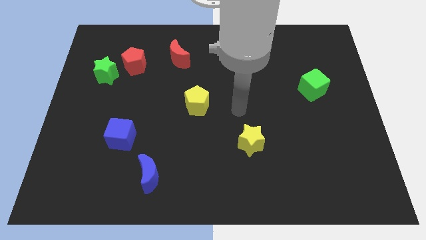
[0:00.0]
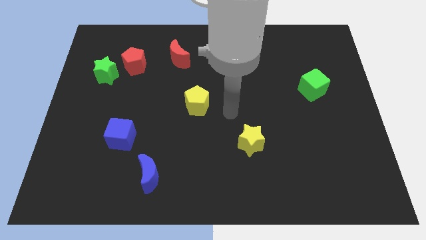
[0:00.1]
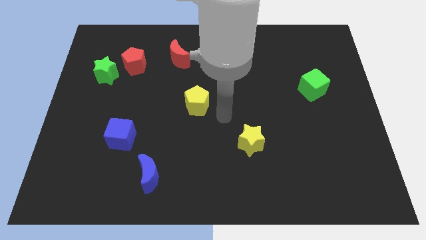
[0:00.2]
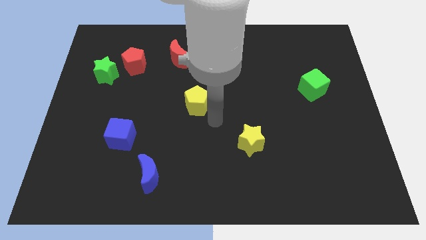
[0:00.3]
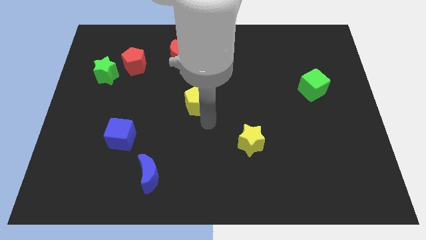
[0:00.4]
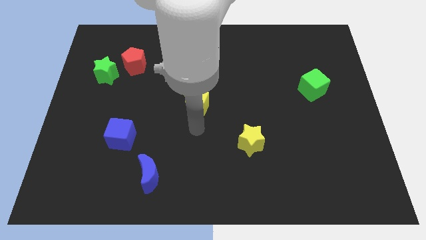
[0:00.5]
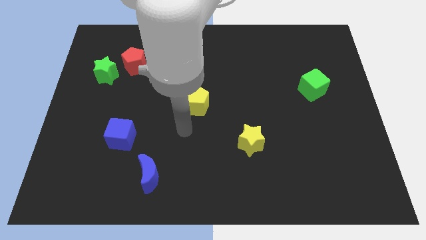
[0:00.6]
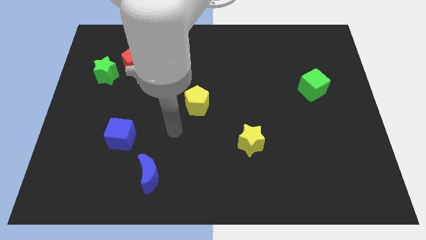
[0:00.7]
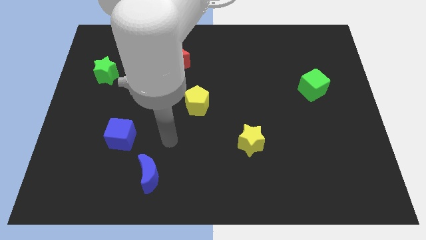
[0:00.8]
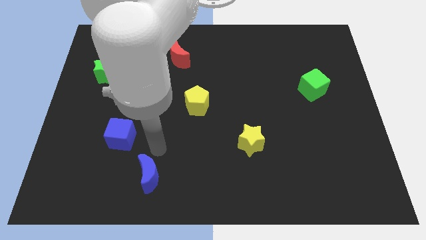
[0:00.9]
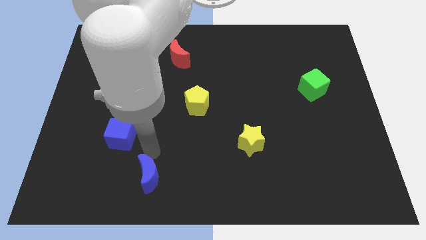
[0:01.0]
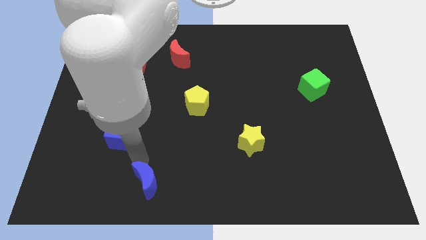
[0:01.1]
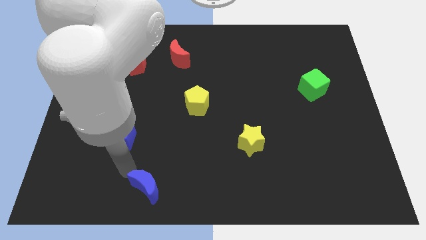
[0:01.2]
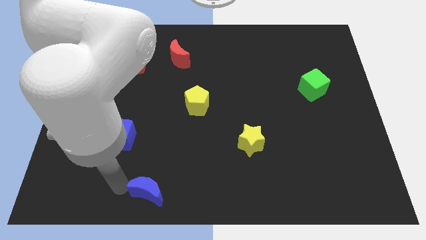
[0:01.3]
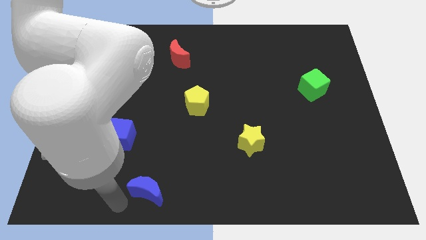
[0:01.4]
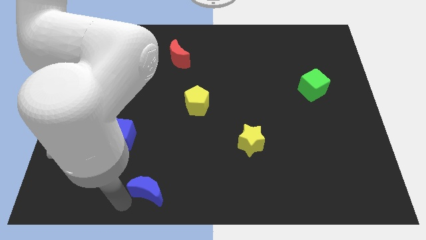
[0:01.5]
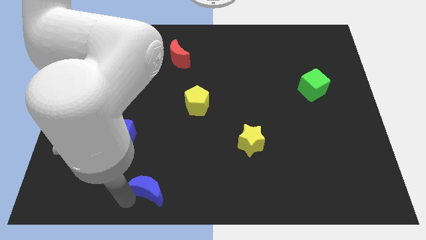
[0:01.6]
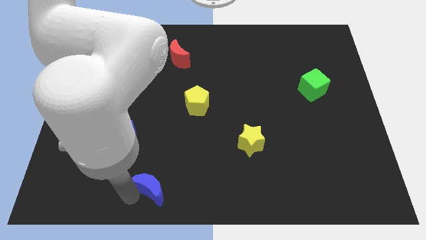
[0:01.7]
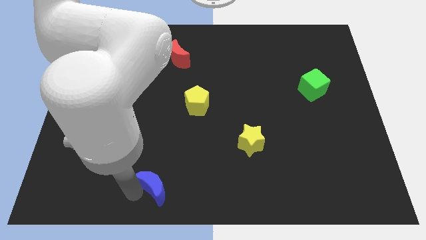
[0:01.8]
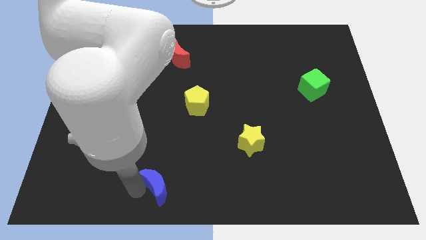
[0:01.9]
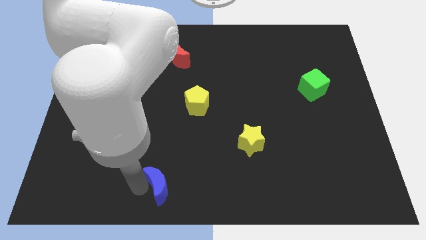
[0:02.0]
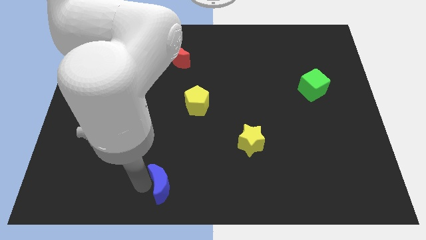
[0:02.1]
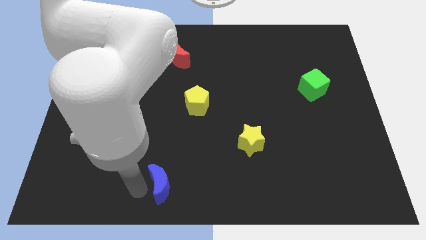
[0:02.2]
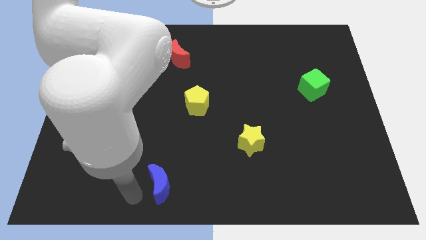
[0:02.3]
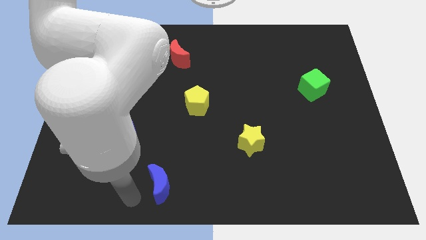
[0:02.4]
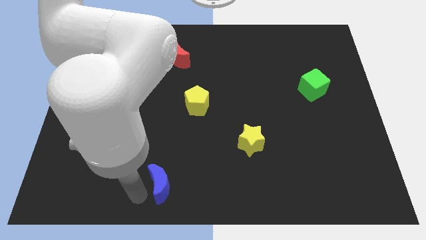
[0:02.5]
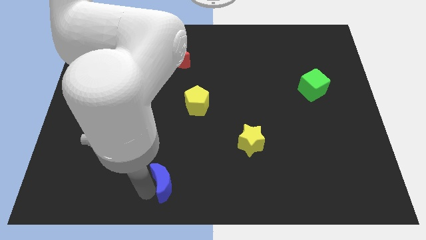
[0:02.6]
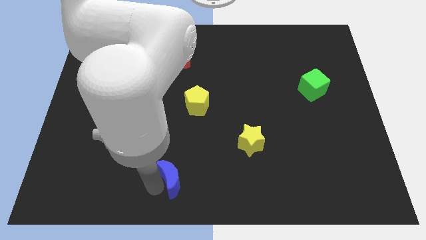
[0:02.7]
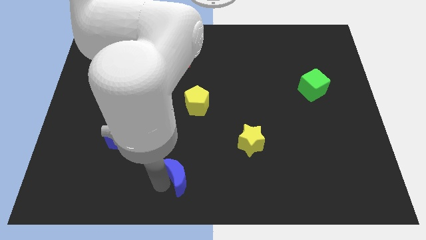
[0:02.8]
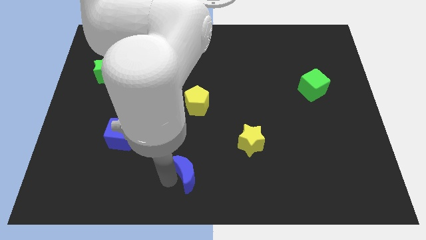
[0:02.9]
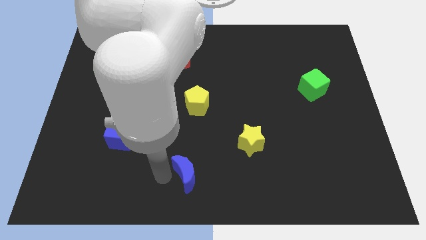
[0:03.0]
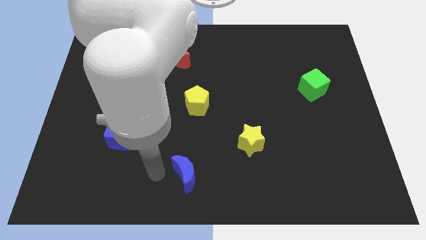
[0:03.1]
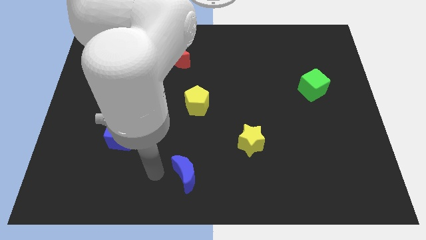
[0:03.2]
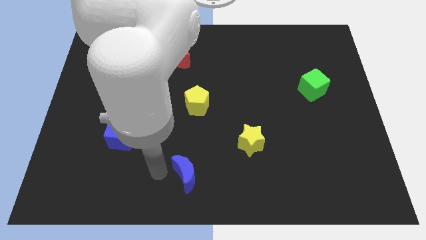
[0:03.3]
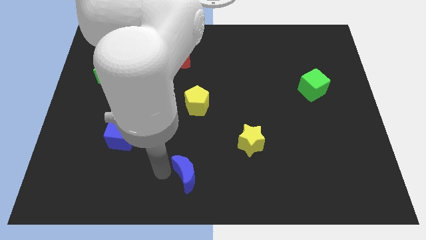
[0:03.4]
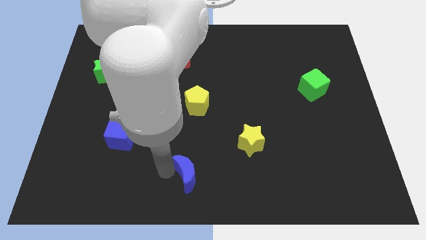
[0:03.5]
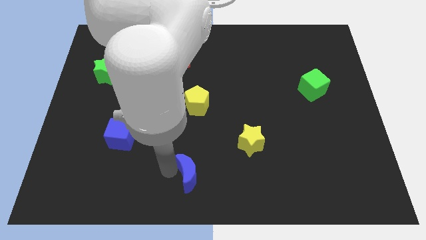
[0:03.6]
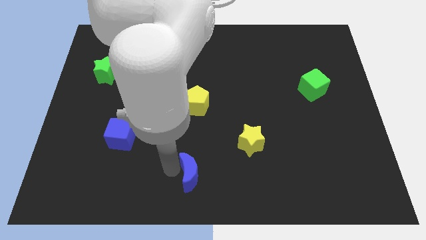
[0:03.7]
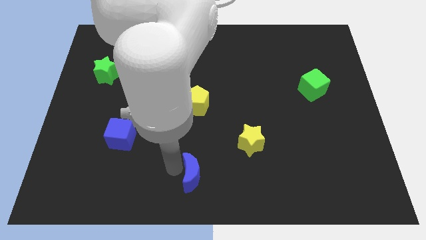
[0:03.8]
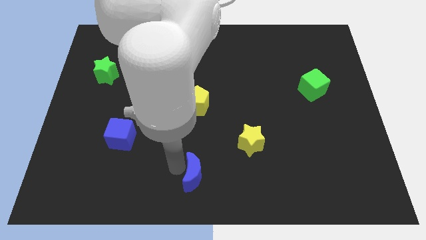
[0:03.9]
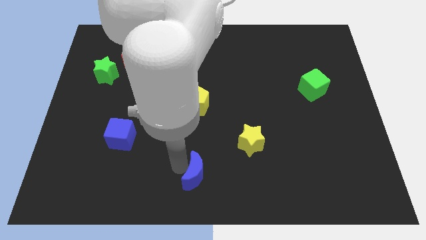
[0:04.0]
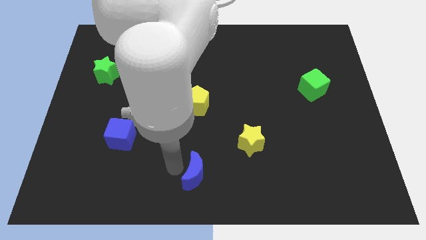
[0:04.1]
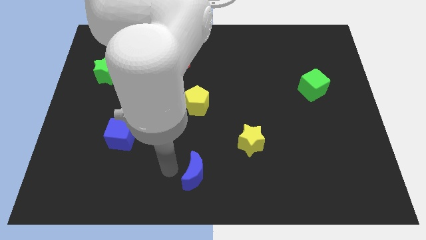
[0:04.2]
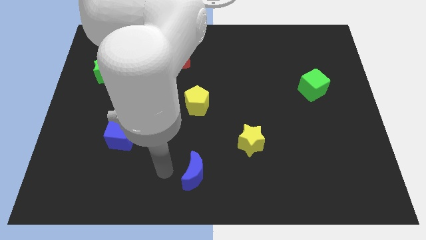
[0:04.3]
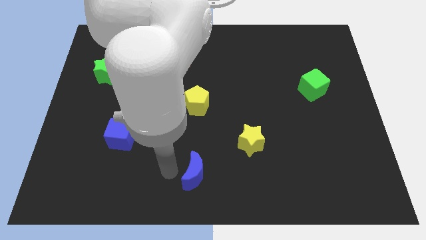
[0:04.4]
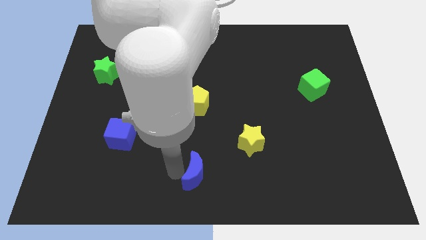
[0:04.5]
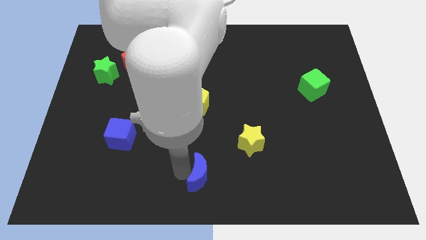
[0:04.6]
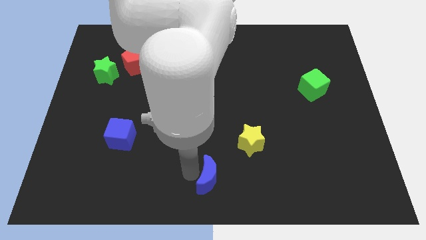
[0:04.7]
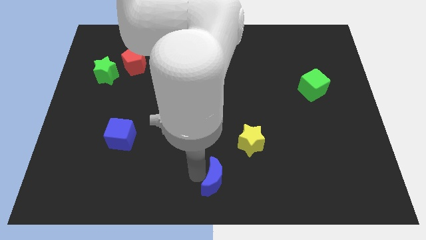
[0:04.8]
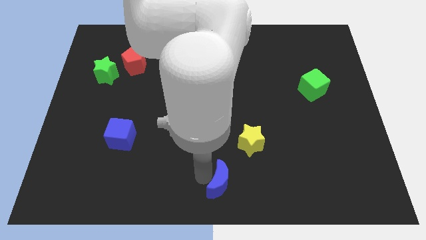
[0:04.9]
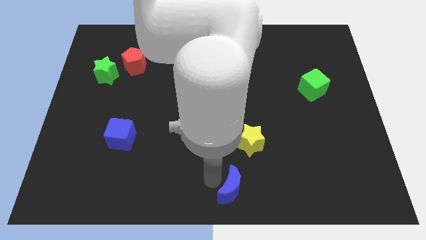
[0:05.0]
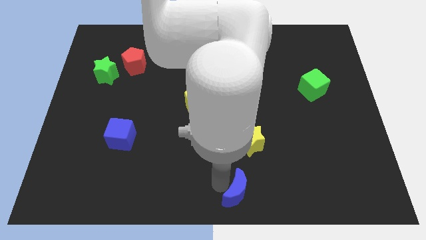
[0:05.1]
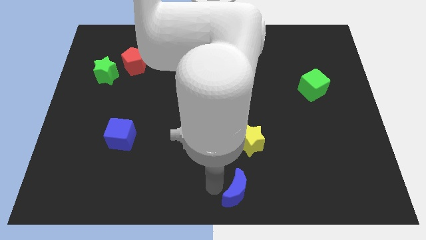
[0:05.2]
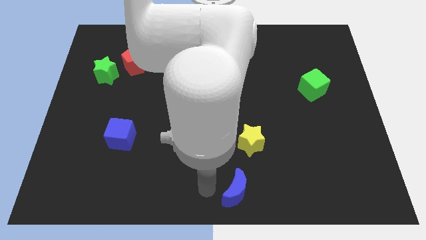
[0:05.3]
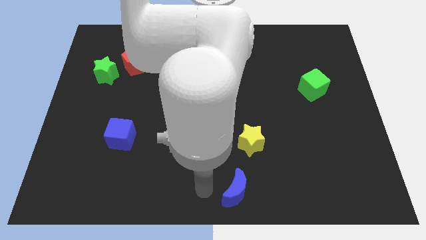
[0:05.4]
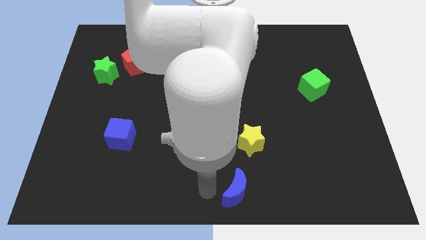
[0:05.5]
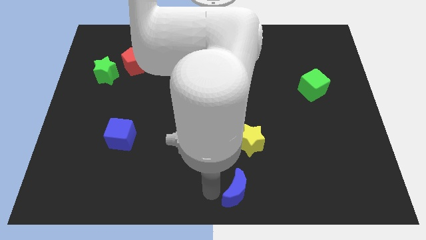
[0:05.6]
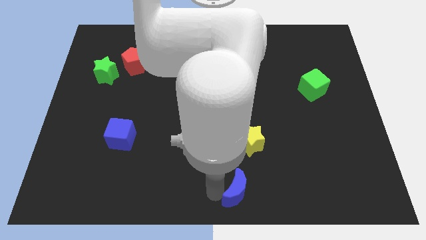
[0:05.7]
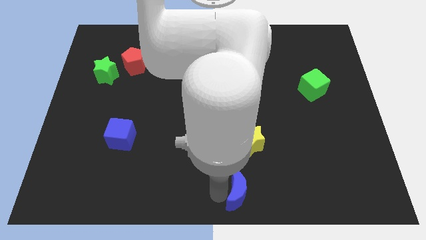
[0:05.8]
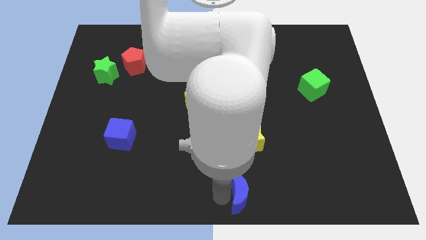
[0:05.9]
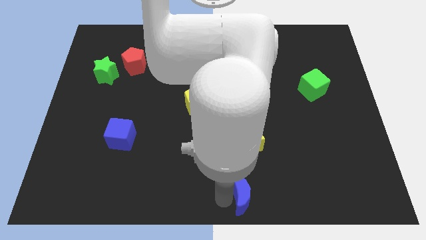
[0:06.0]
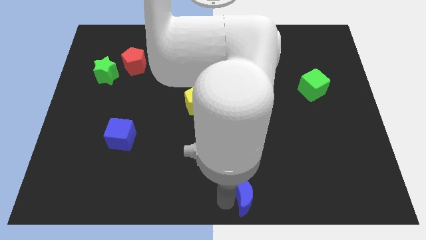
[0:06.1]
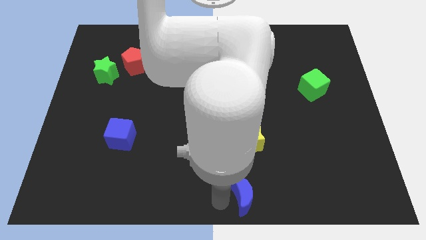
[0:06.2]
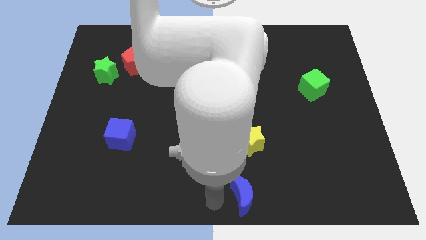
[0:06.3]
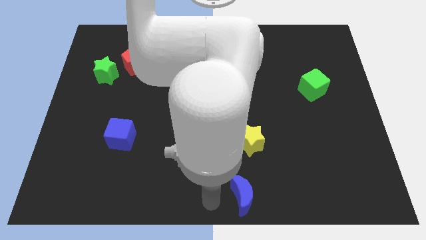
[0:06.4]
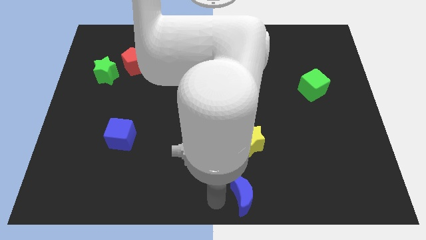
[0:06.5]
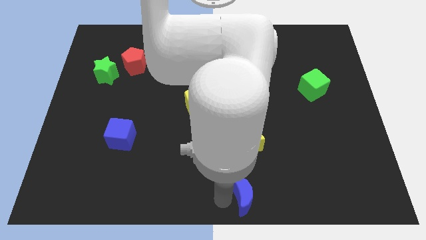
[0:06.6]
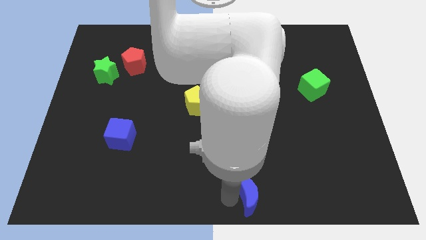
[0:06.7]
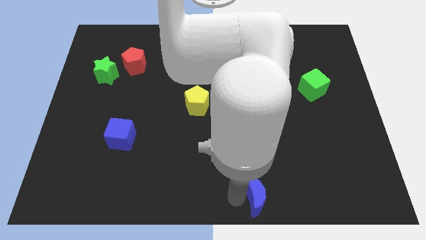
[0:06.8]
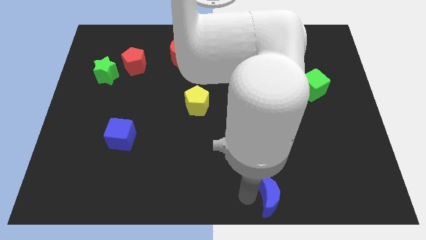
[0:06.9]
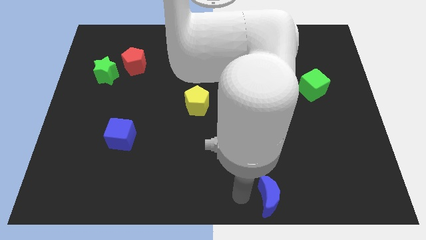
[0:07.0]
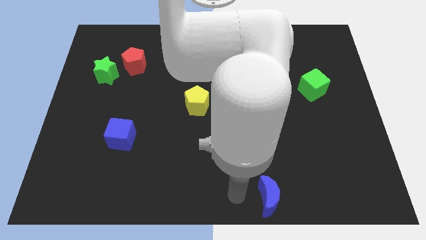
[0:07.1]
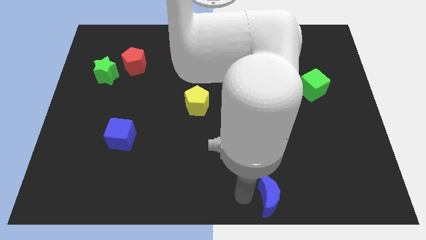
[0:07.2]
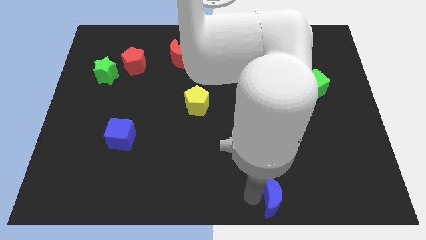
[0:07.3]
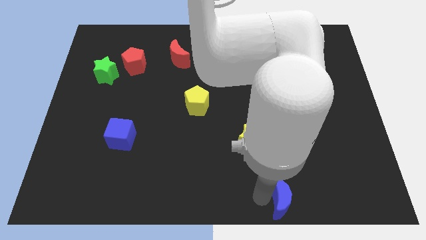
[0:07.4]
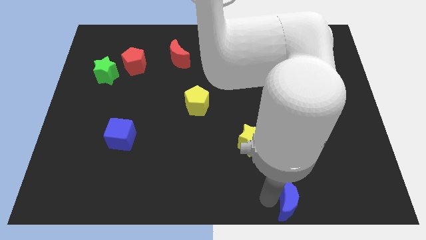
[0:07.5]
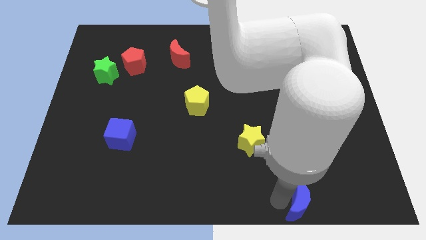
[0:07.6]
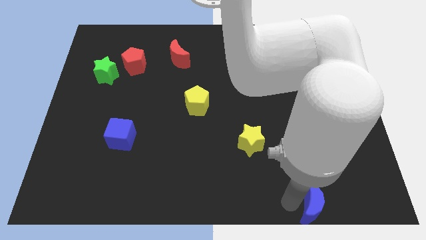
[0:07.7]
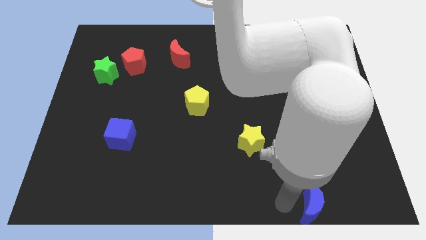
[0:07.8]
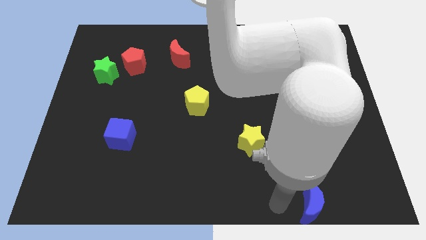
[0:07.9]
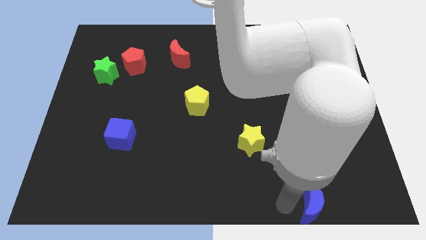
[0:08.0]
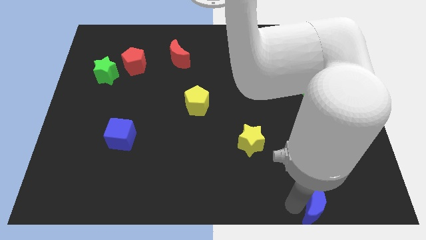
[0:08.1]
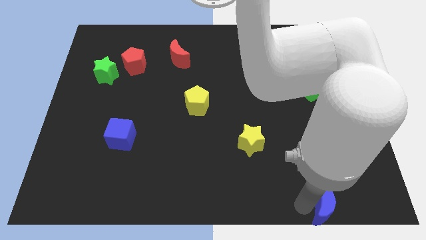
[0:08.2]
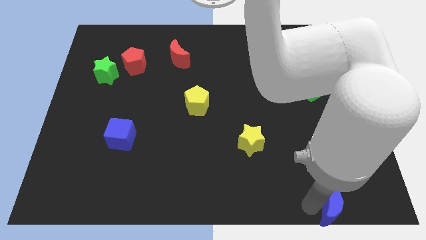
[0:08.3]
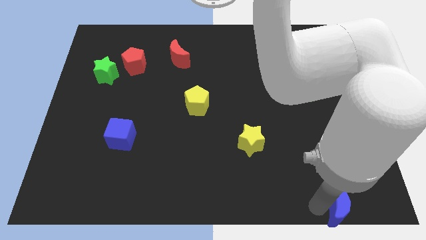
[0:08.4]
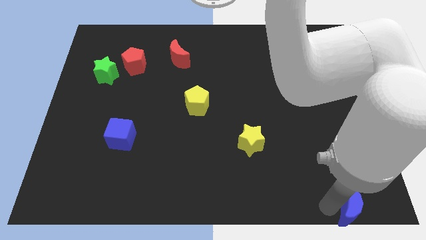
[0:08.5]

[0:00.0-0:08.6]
put the blue moon to the lower right corner
